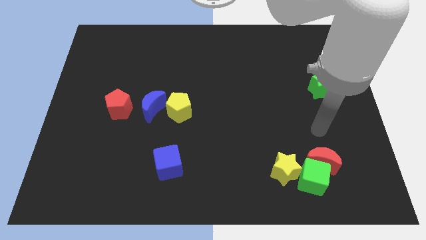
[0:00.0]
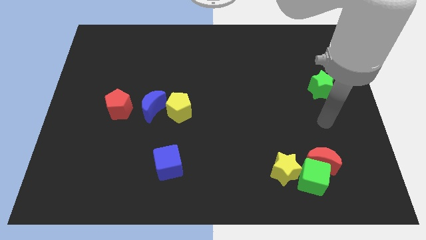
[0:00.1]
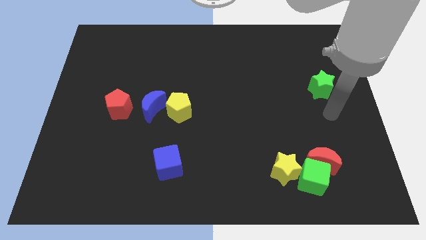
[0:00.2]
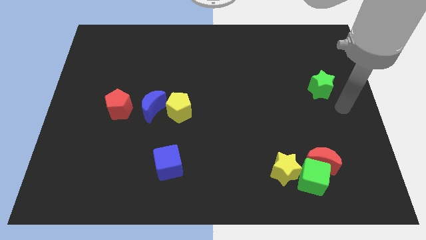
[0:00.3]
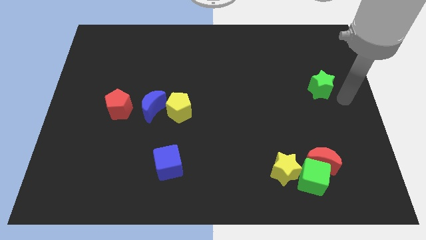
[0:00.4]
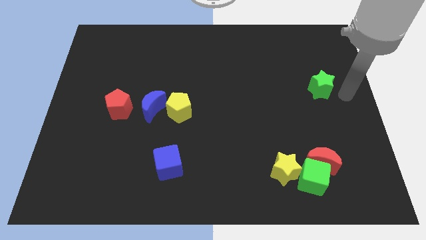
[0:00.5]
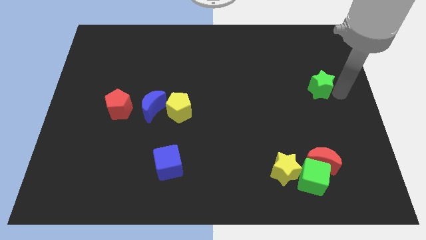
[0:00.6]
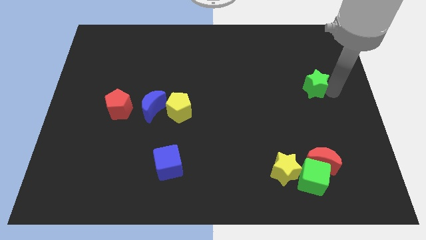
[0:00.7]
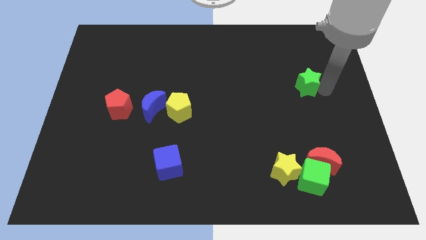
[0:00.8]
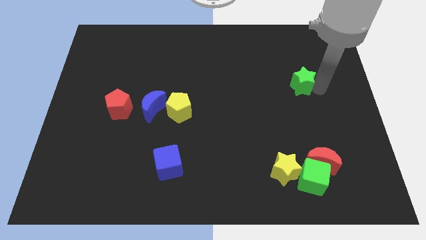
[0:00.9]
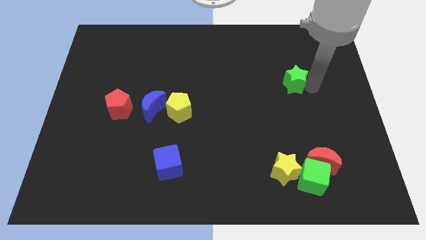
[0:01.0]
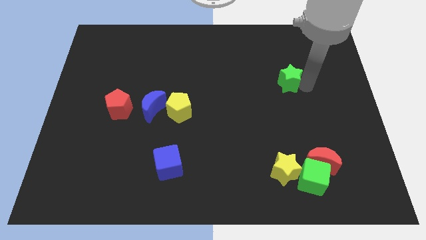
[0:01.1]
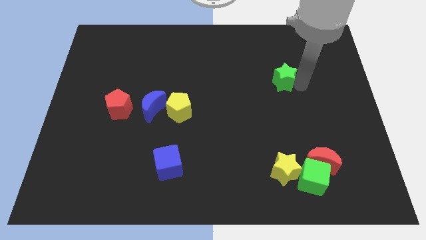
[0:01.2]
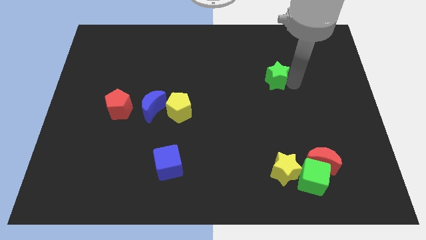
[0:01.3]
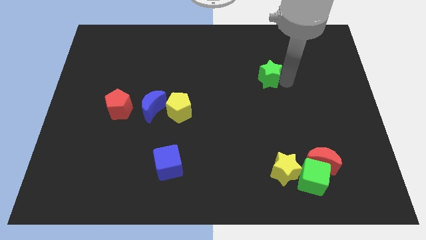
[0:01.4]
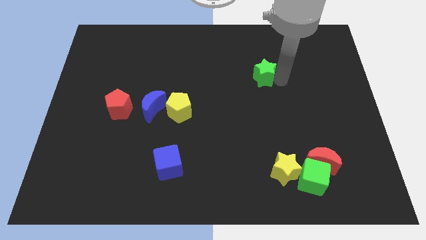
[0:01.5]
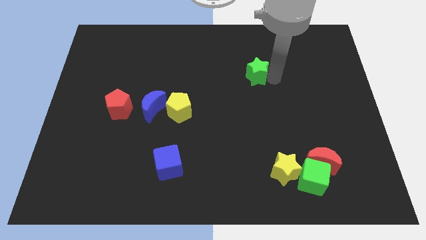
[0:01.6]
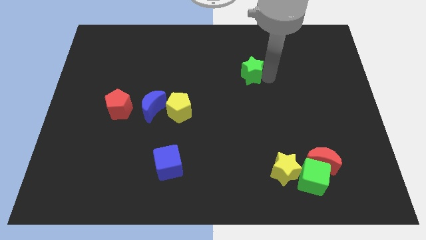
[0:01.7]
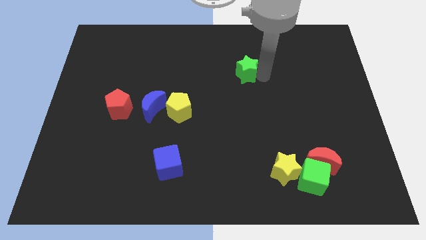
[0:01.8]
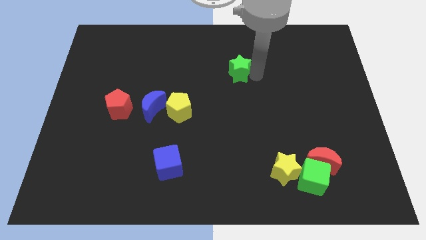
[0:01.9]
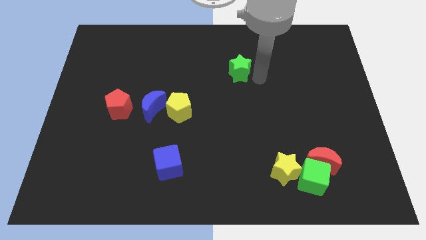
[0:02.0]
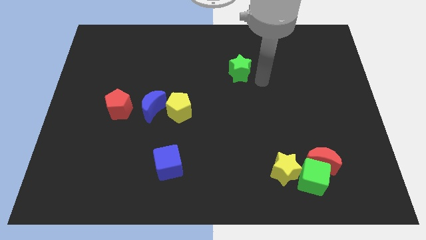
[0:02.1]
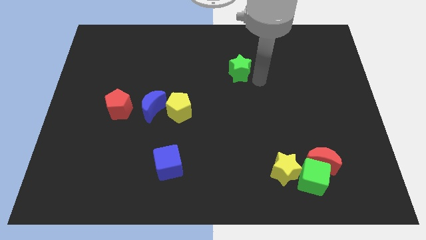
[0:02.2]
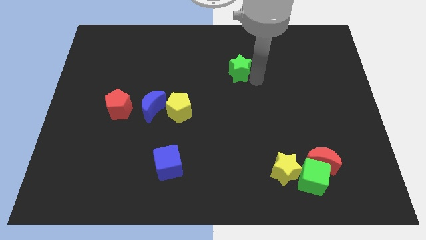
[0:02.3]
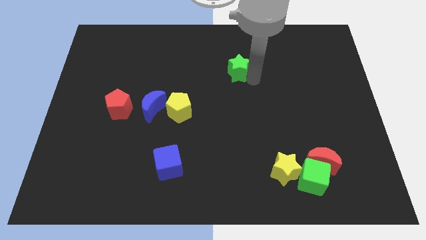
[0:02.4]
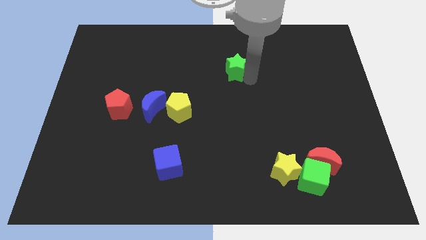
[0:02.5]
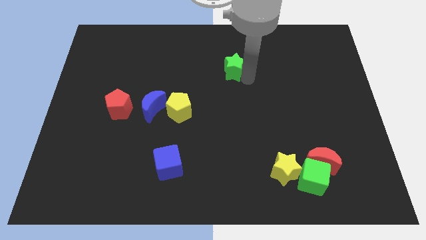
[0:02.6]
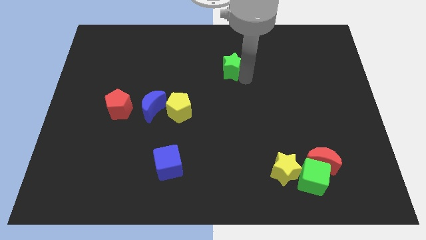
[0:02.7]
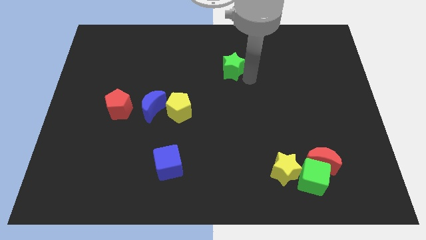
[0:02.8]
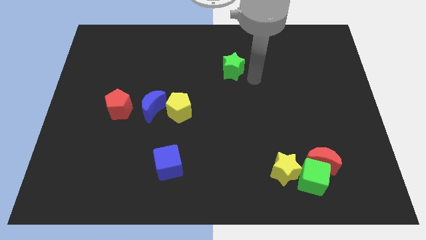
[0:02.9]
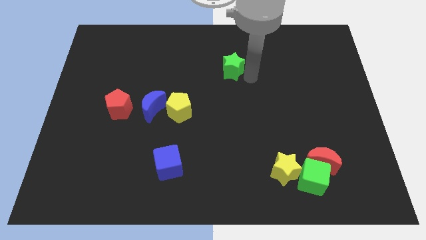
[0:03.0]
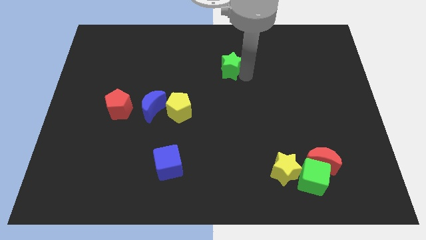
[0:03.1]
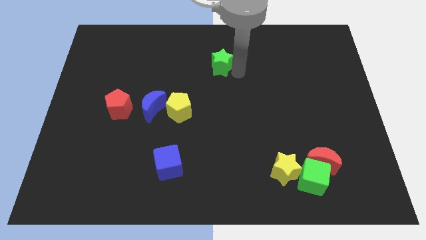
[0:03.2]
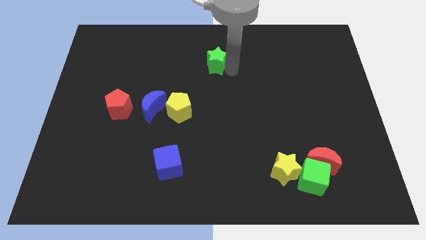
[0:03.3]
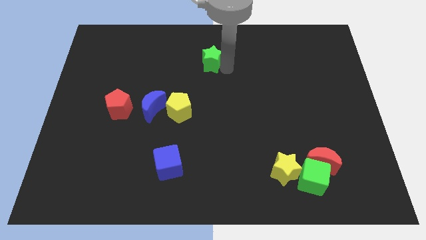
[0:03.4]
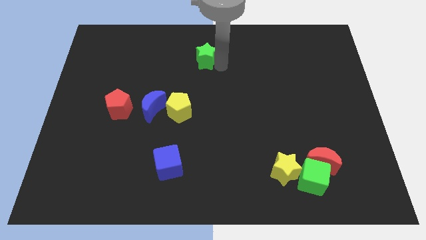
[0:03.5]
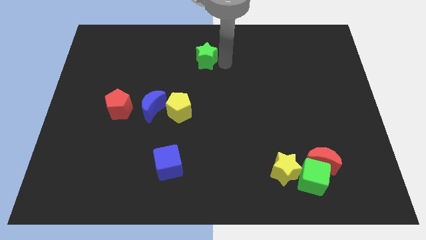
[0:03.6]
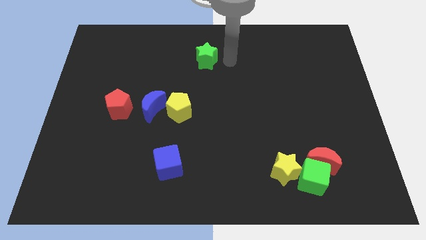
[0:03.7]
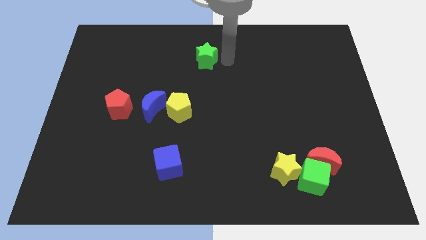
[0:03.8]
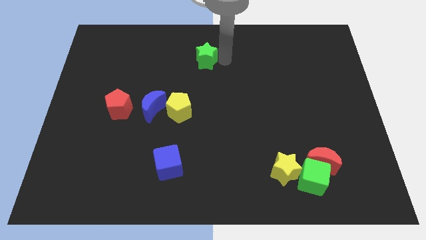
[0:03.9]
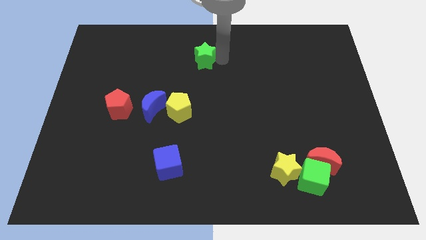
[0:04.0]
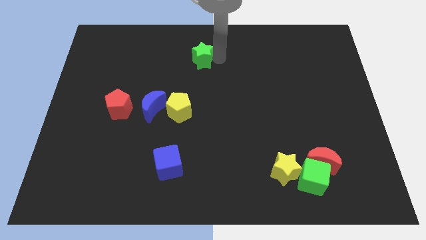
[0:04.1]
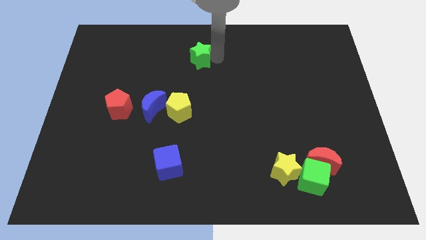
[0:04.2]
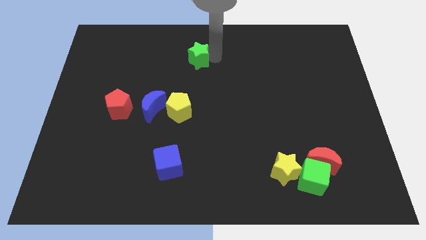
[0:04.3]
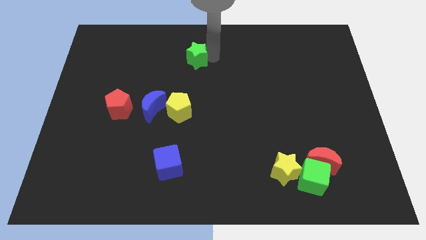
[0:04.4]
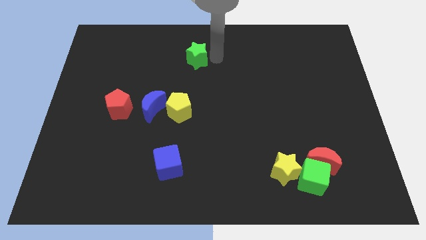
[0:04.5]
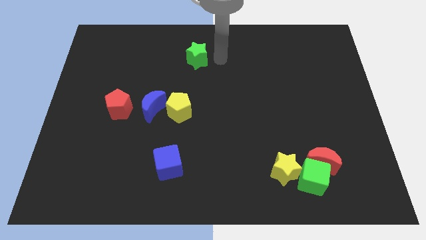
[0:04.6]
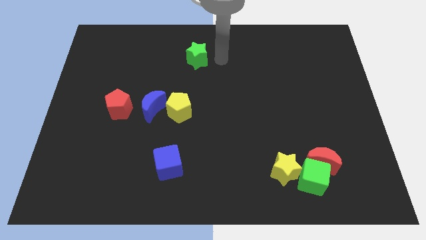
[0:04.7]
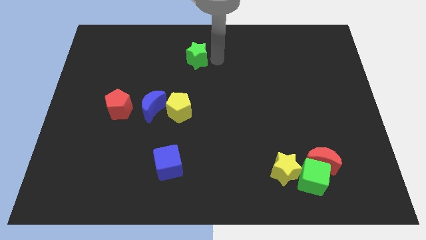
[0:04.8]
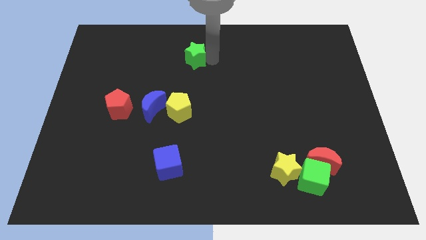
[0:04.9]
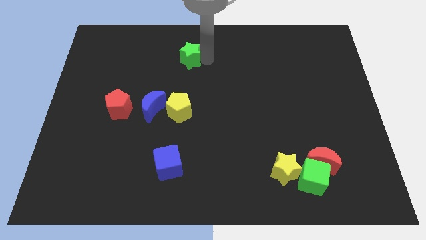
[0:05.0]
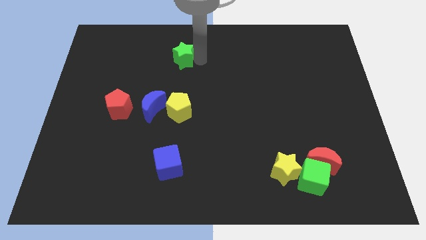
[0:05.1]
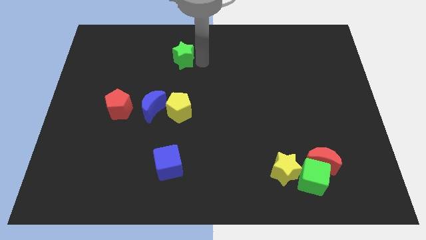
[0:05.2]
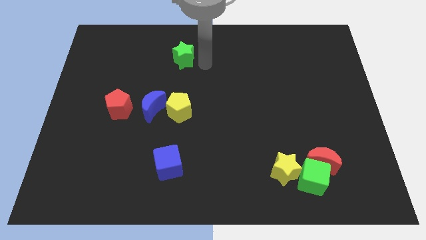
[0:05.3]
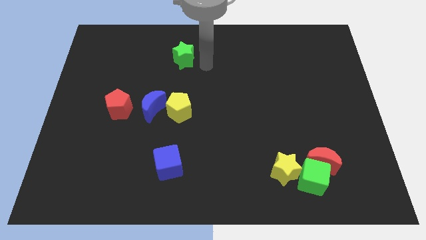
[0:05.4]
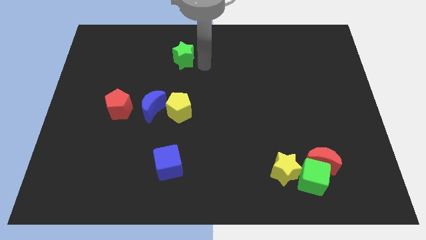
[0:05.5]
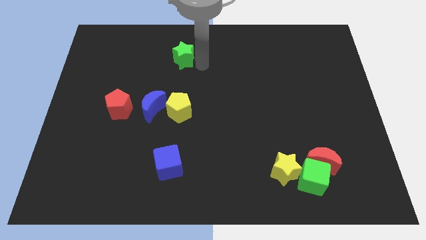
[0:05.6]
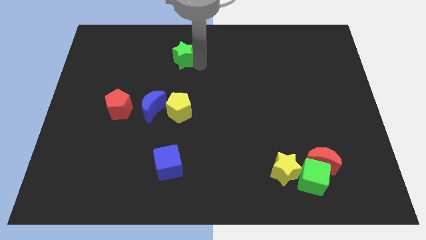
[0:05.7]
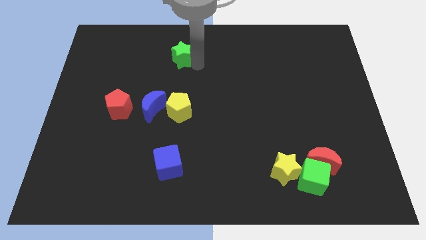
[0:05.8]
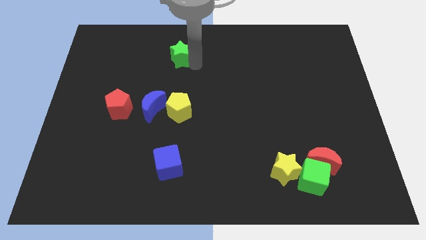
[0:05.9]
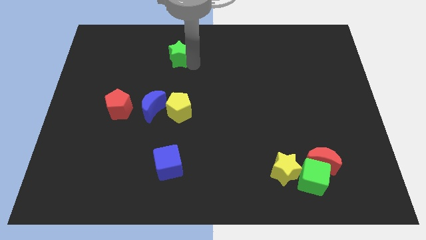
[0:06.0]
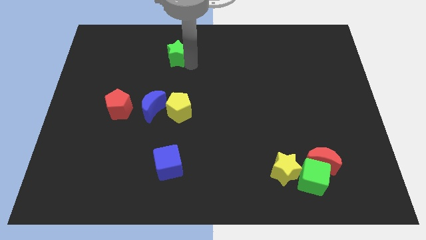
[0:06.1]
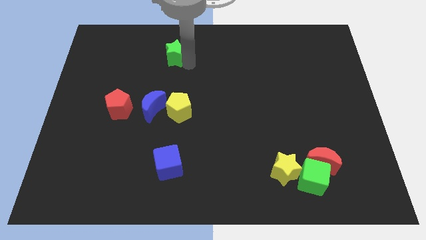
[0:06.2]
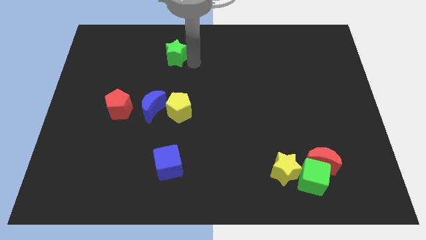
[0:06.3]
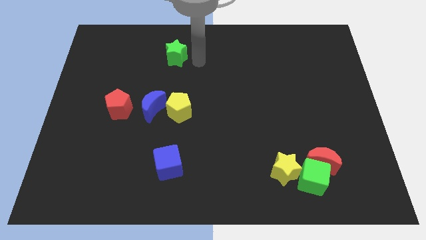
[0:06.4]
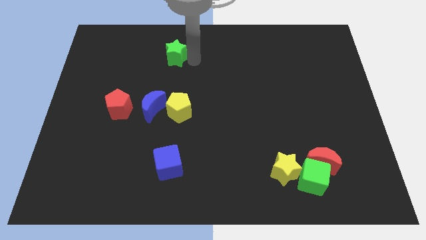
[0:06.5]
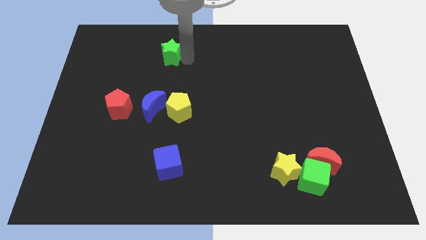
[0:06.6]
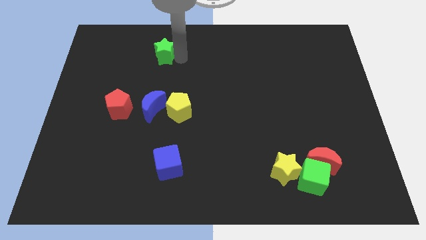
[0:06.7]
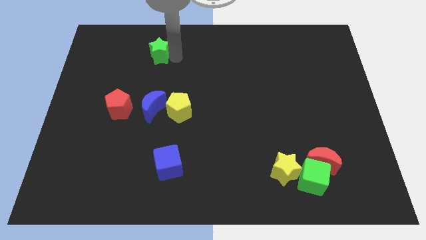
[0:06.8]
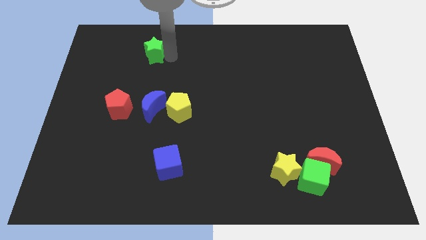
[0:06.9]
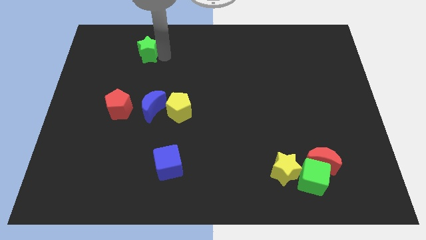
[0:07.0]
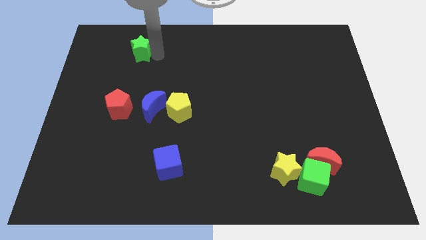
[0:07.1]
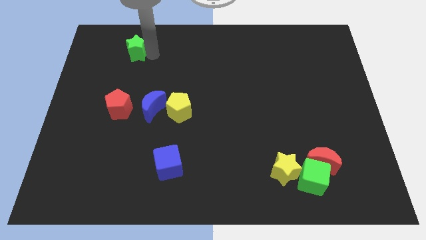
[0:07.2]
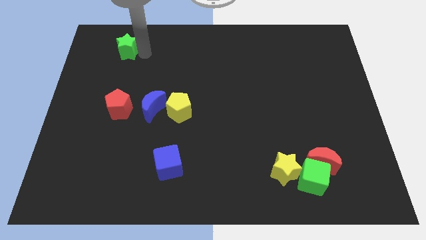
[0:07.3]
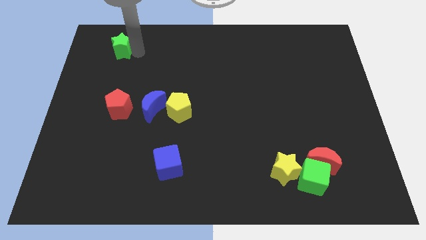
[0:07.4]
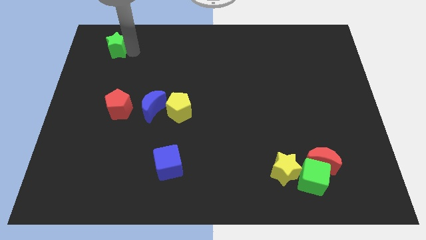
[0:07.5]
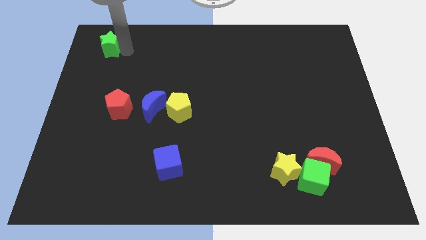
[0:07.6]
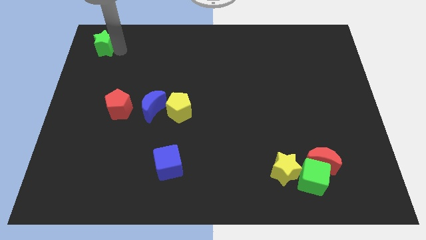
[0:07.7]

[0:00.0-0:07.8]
put the green star to the top left corner
